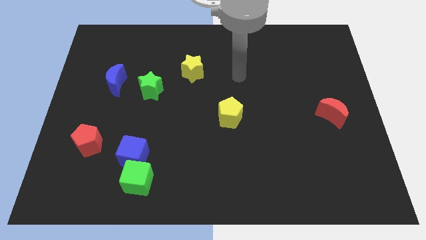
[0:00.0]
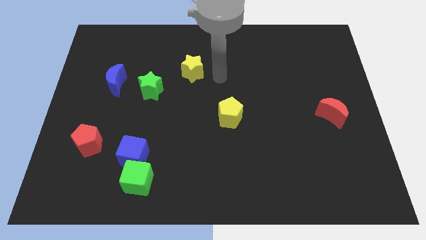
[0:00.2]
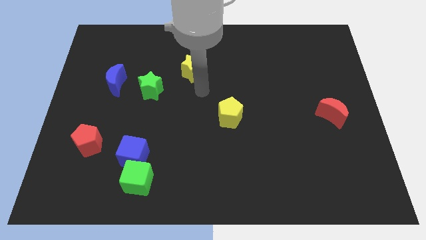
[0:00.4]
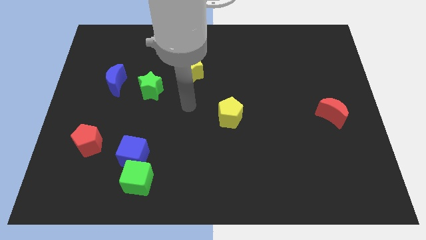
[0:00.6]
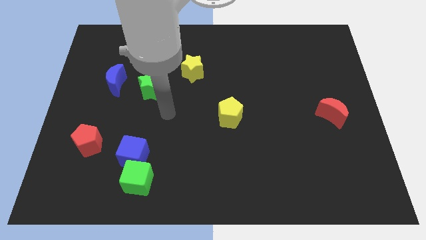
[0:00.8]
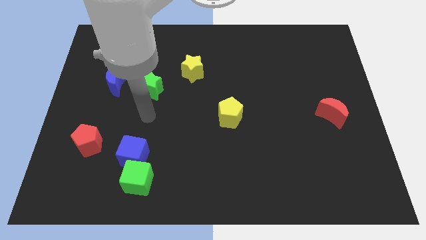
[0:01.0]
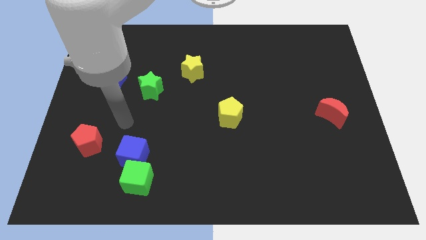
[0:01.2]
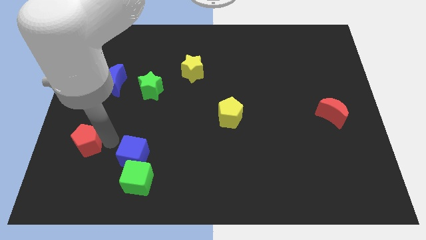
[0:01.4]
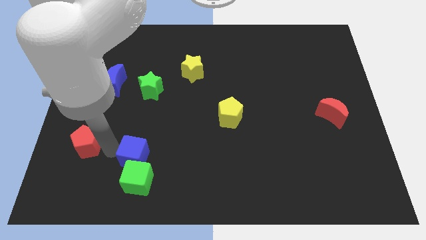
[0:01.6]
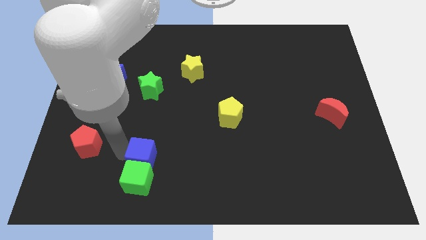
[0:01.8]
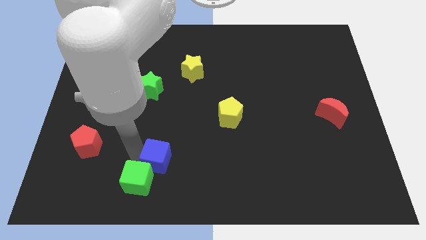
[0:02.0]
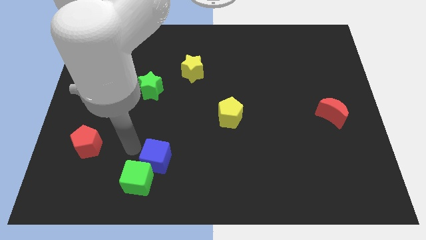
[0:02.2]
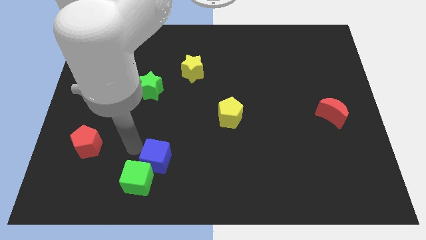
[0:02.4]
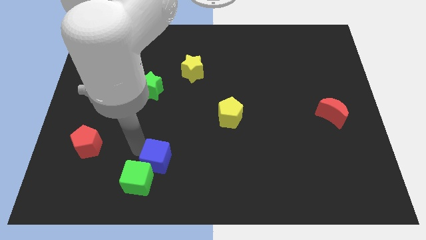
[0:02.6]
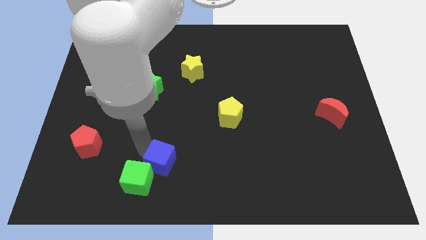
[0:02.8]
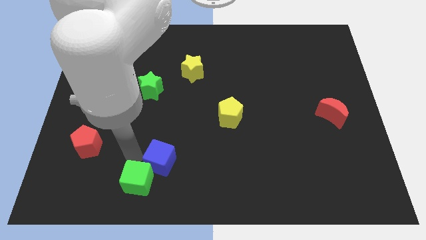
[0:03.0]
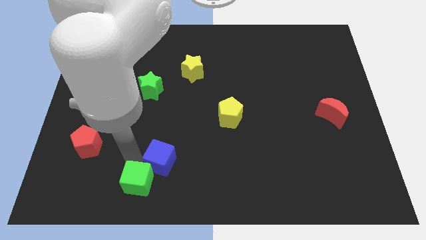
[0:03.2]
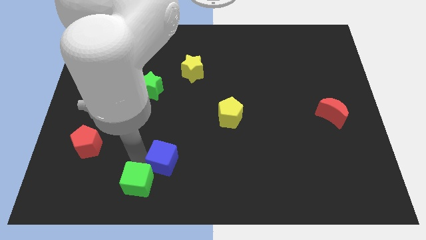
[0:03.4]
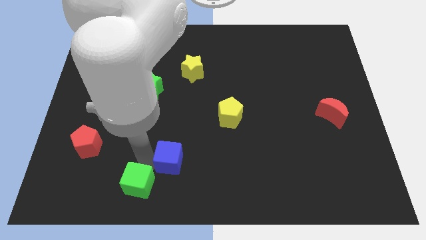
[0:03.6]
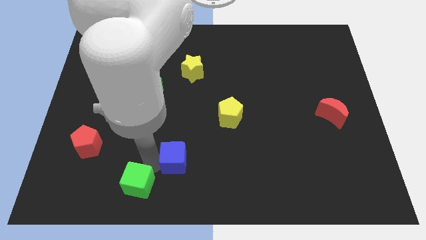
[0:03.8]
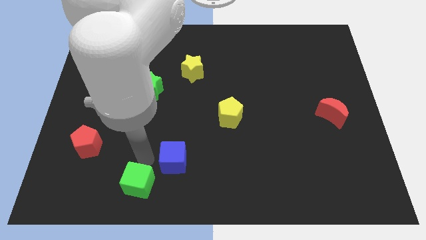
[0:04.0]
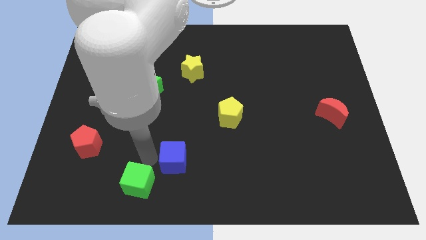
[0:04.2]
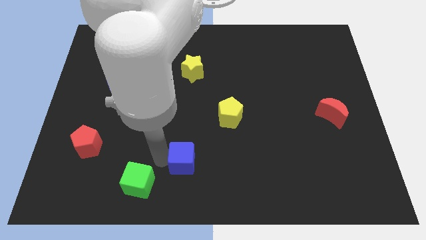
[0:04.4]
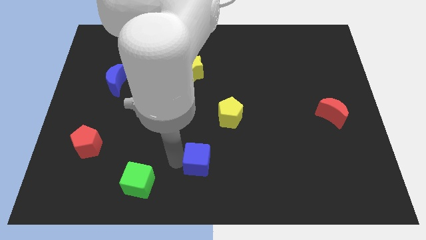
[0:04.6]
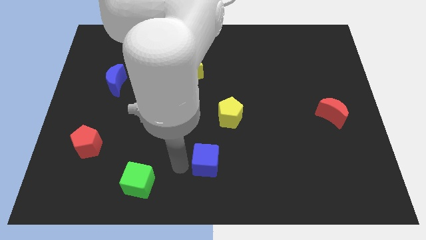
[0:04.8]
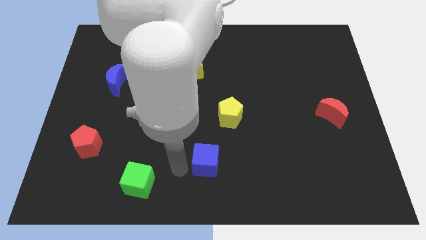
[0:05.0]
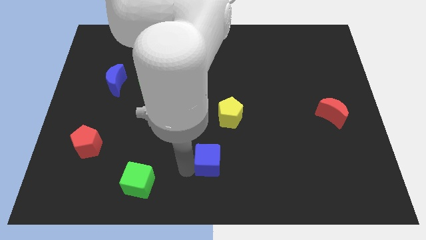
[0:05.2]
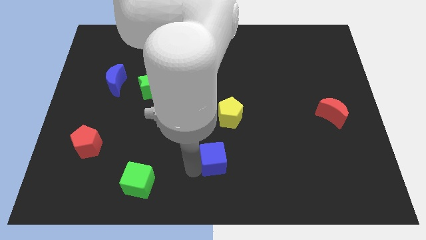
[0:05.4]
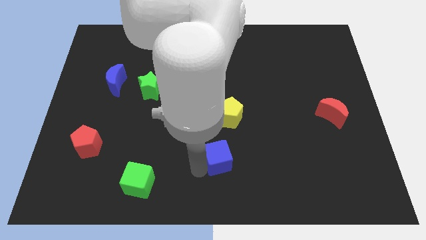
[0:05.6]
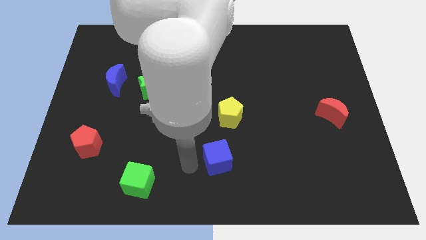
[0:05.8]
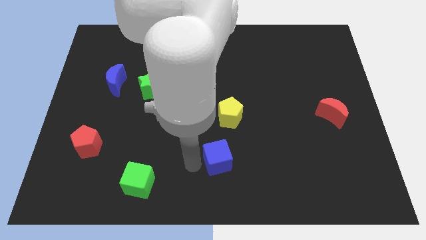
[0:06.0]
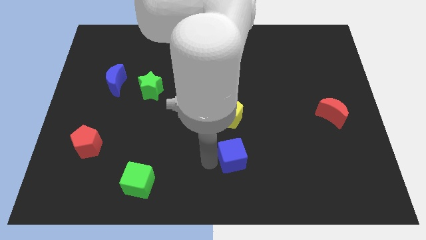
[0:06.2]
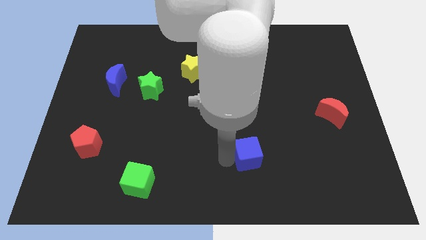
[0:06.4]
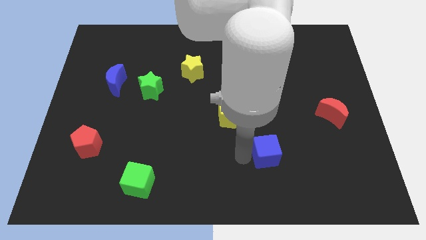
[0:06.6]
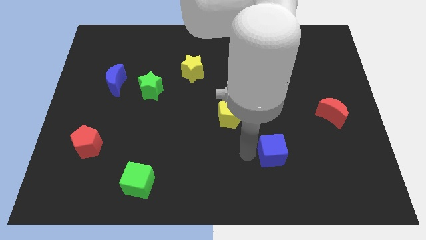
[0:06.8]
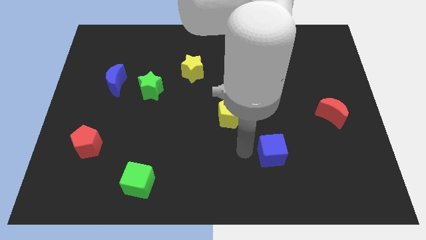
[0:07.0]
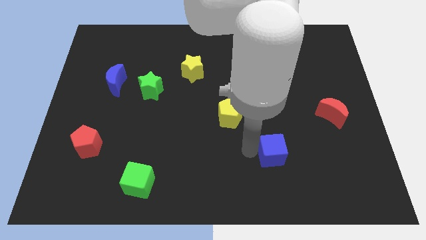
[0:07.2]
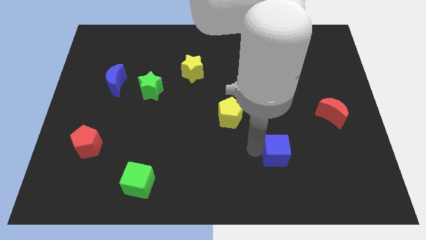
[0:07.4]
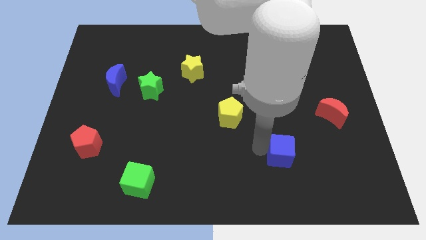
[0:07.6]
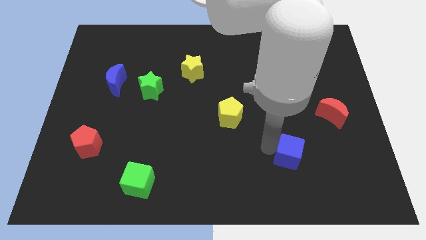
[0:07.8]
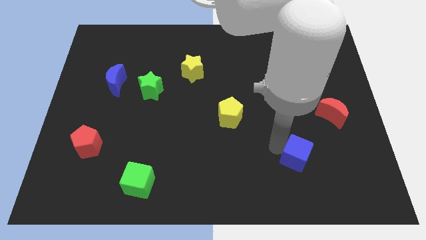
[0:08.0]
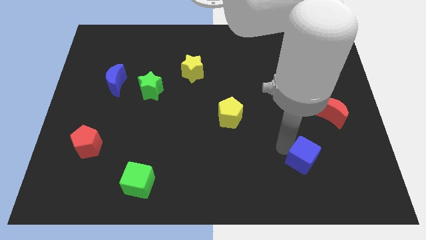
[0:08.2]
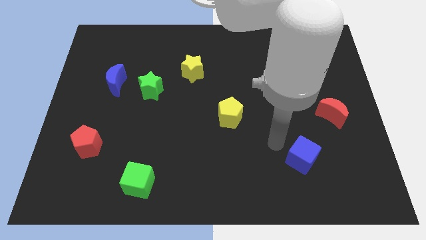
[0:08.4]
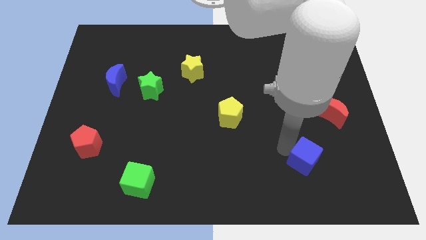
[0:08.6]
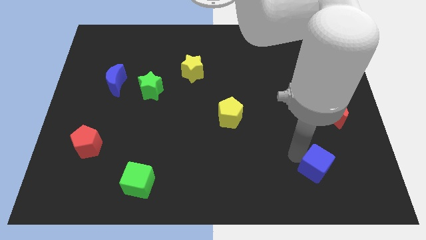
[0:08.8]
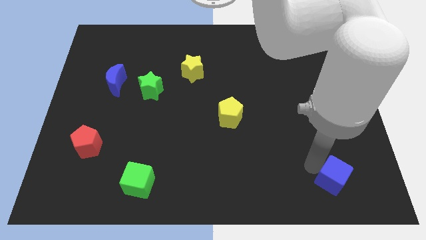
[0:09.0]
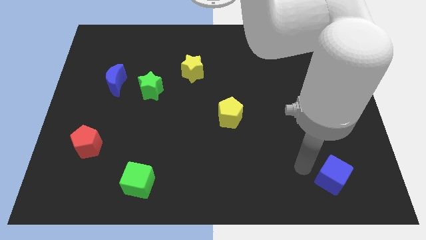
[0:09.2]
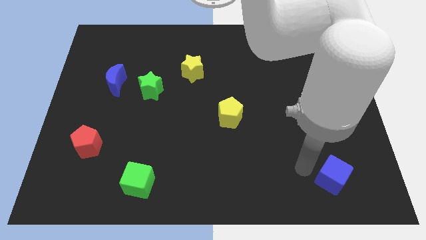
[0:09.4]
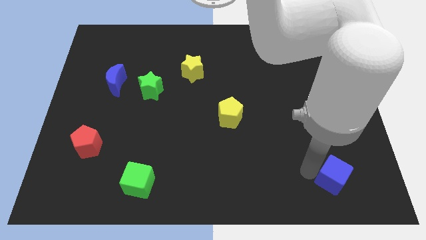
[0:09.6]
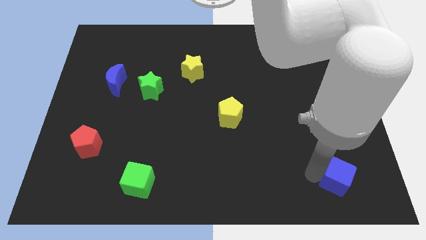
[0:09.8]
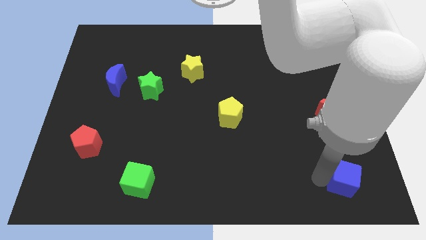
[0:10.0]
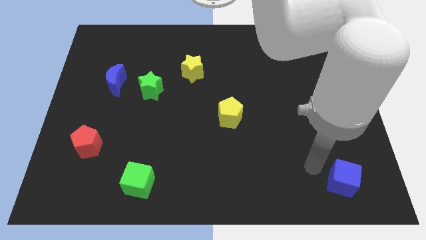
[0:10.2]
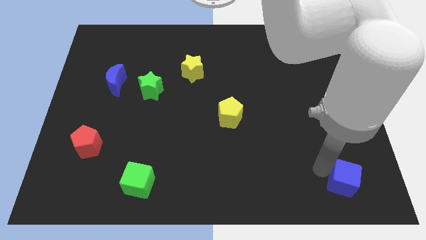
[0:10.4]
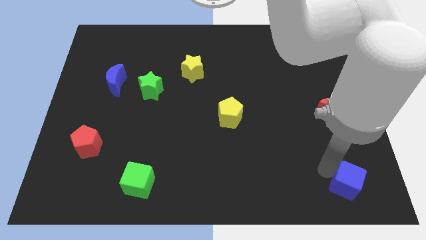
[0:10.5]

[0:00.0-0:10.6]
slide the blue cube to the bottom right

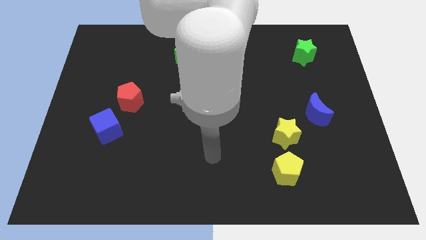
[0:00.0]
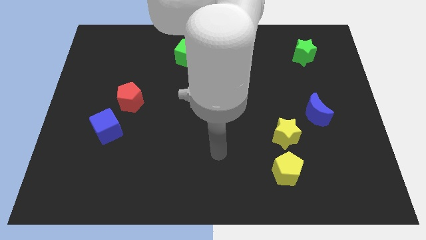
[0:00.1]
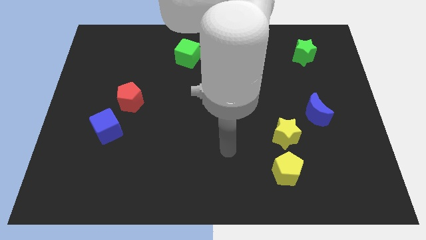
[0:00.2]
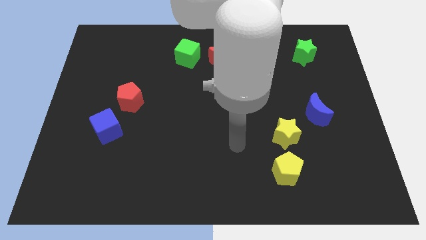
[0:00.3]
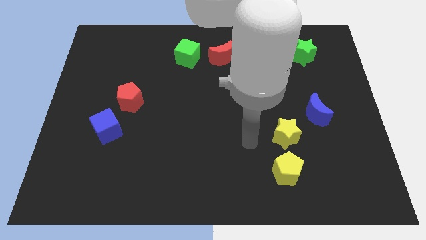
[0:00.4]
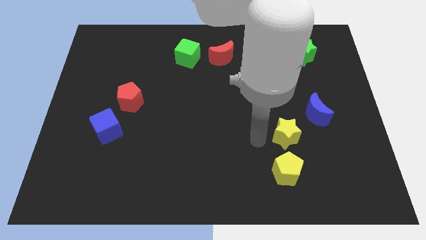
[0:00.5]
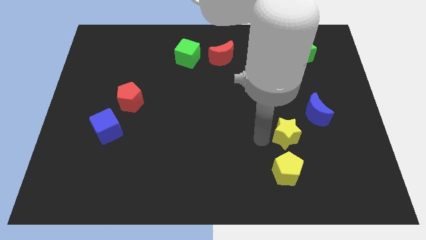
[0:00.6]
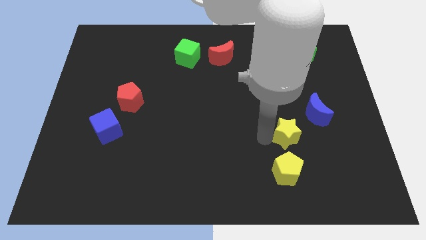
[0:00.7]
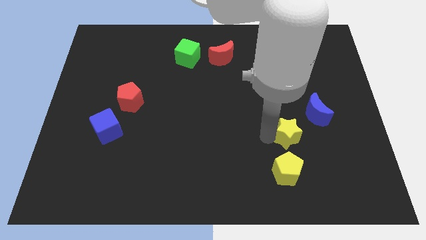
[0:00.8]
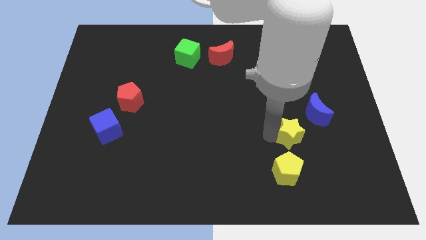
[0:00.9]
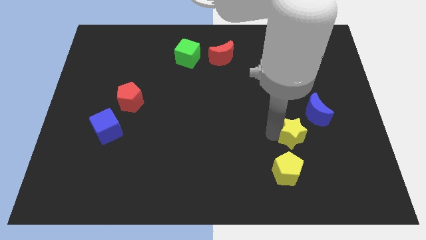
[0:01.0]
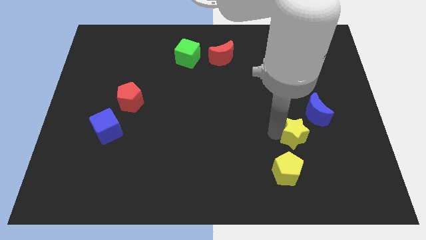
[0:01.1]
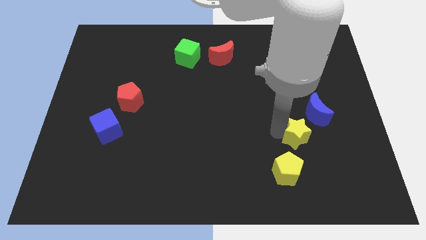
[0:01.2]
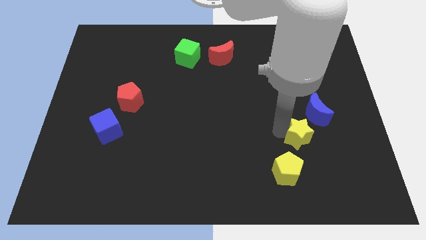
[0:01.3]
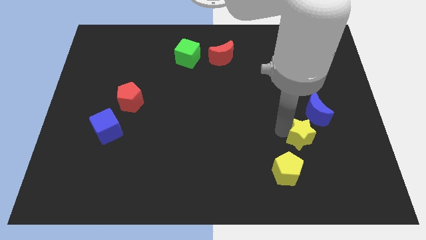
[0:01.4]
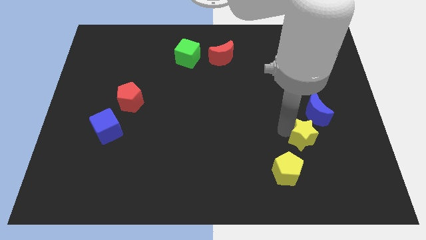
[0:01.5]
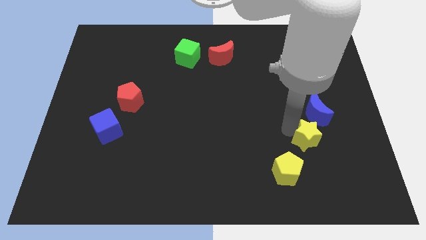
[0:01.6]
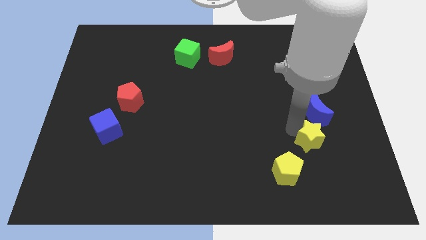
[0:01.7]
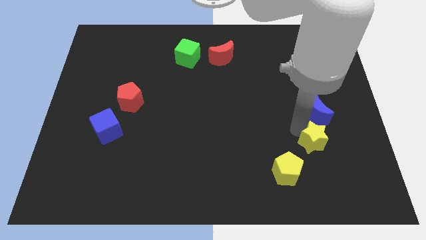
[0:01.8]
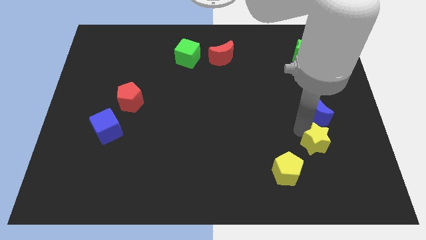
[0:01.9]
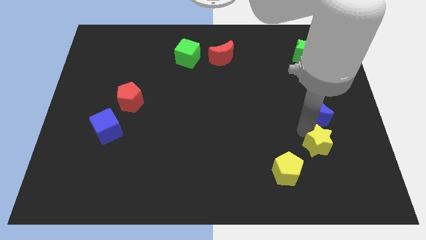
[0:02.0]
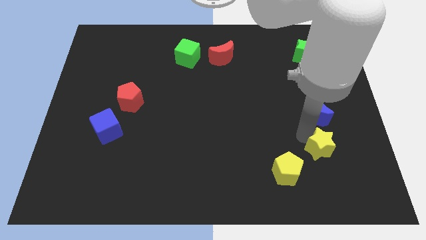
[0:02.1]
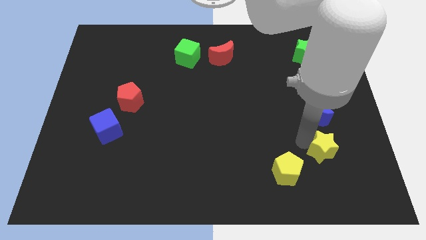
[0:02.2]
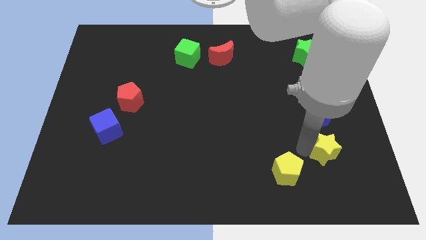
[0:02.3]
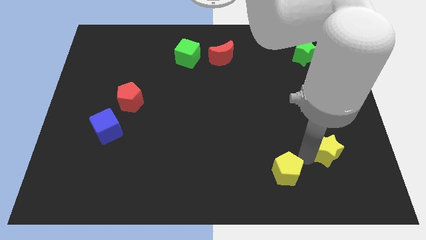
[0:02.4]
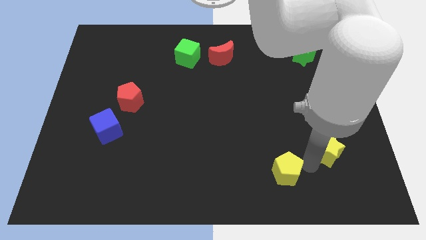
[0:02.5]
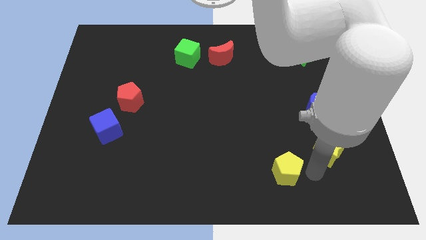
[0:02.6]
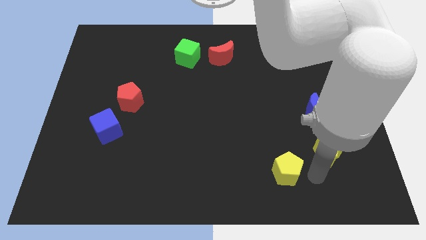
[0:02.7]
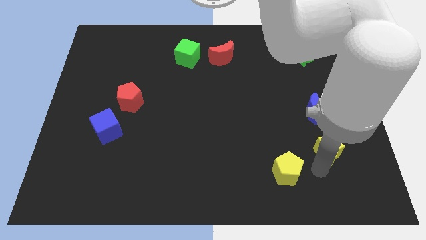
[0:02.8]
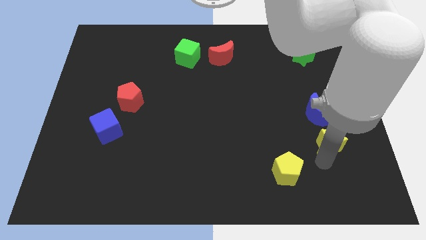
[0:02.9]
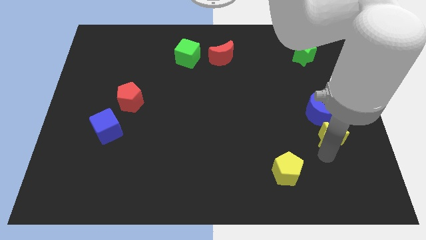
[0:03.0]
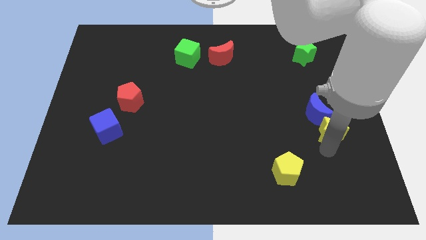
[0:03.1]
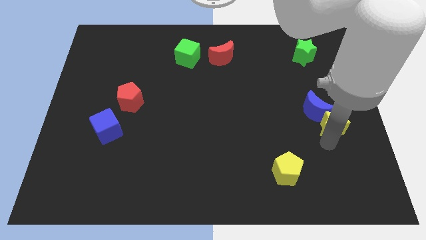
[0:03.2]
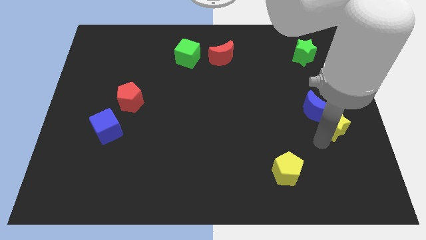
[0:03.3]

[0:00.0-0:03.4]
put the yellow star to the right side of the board
